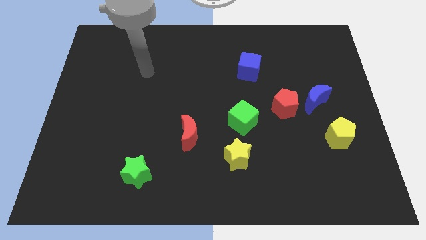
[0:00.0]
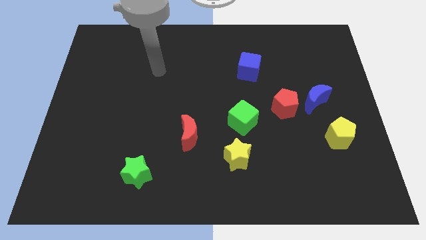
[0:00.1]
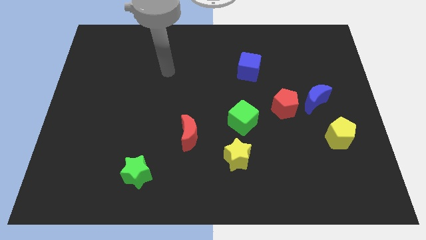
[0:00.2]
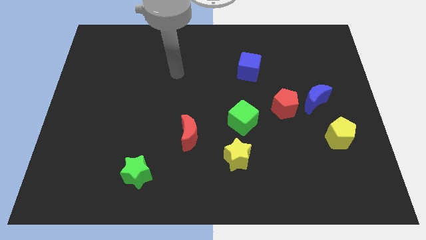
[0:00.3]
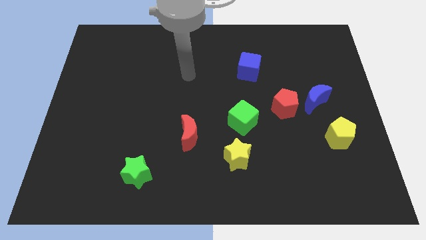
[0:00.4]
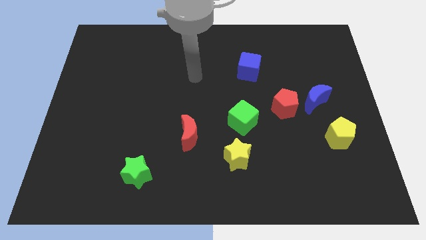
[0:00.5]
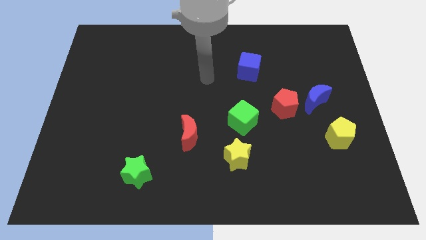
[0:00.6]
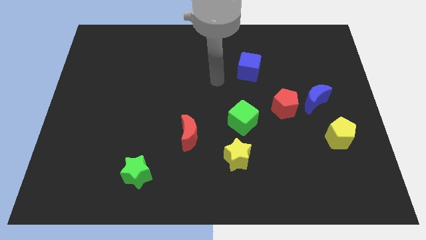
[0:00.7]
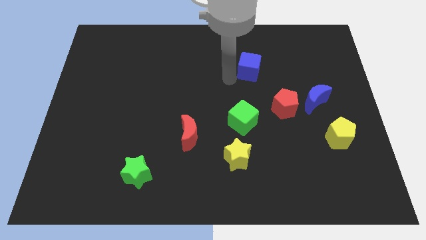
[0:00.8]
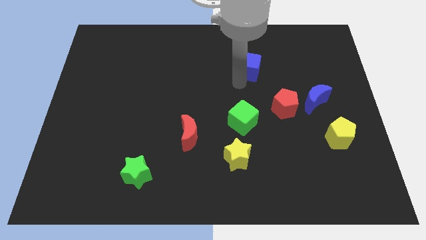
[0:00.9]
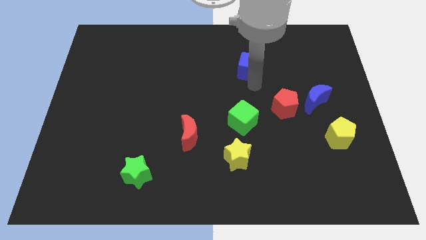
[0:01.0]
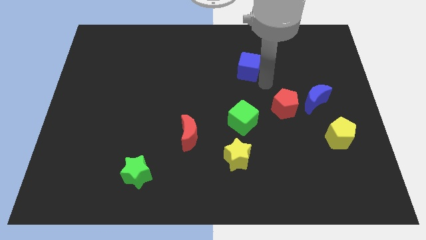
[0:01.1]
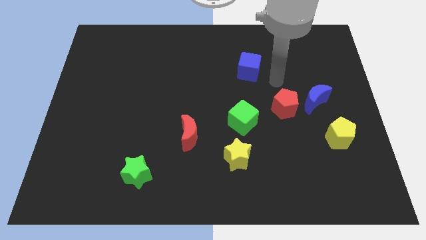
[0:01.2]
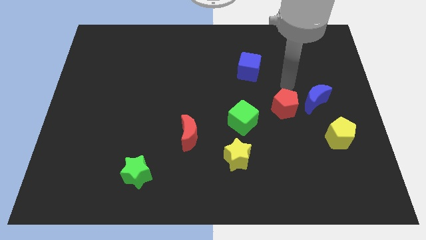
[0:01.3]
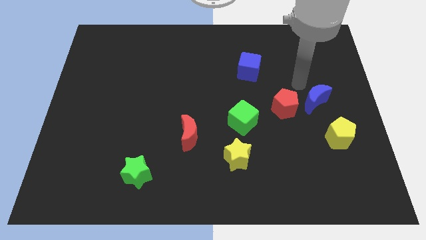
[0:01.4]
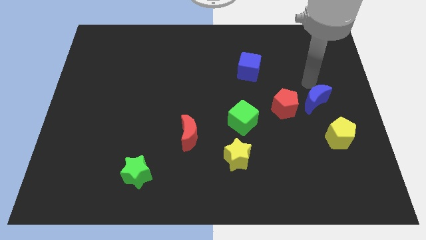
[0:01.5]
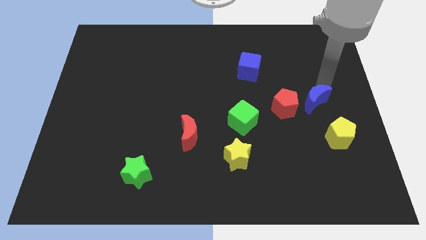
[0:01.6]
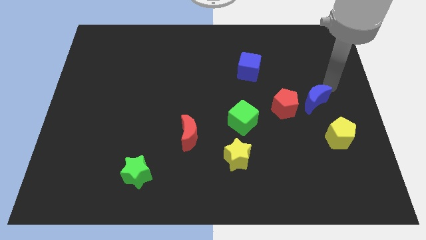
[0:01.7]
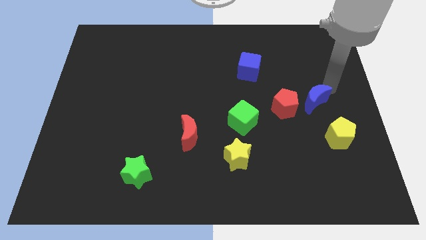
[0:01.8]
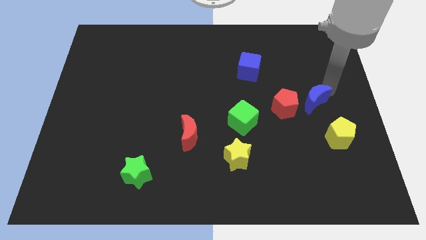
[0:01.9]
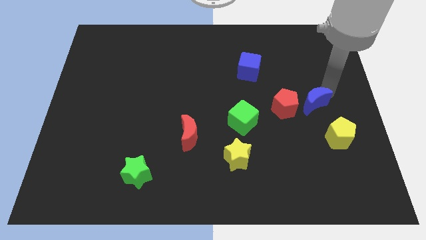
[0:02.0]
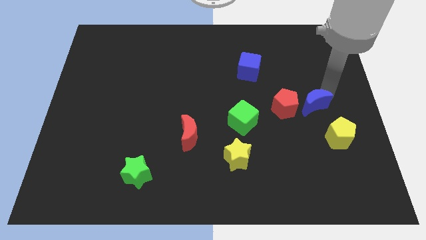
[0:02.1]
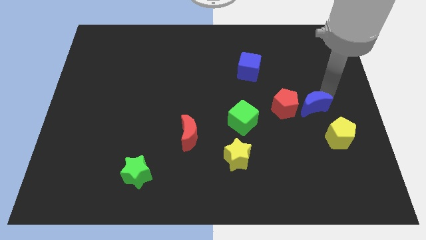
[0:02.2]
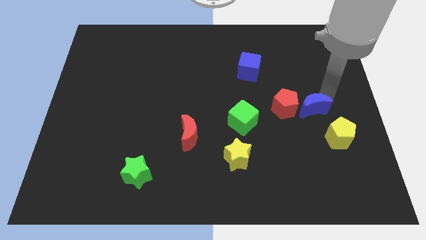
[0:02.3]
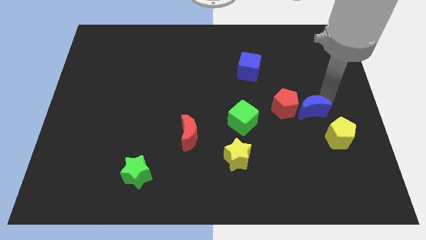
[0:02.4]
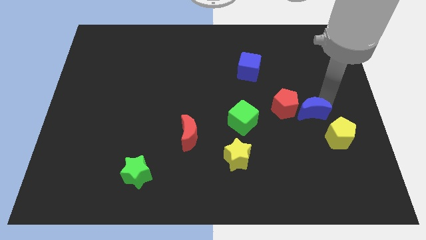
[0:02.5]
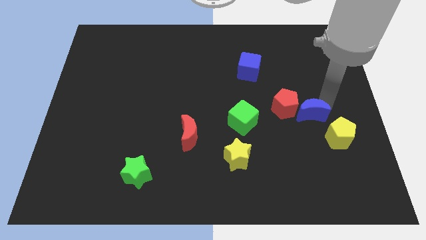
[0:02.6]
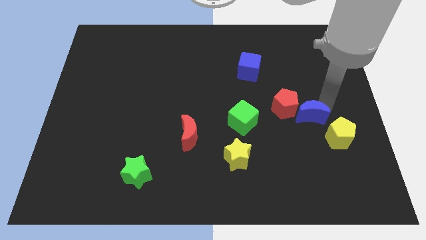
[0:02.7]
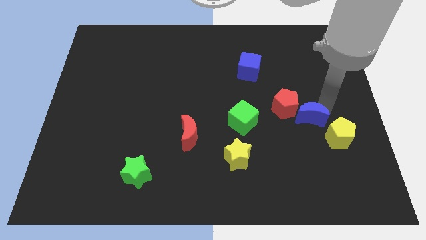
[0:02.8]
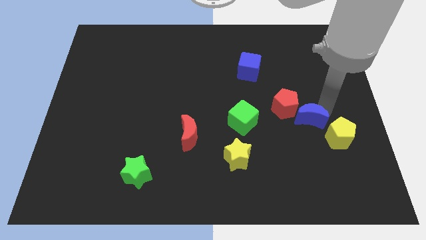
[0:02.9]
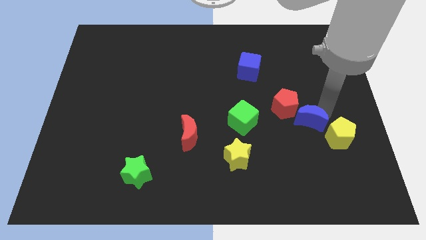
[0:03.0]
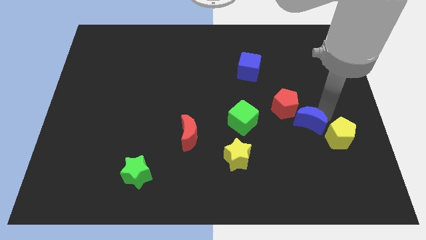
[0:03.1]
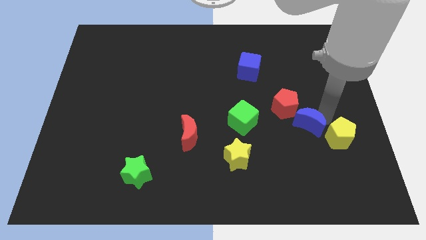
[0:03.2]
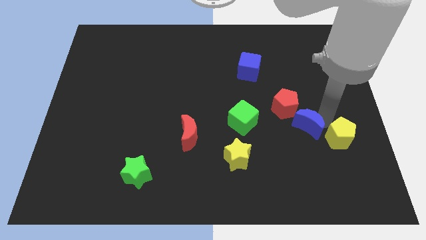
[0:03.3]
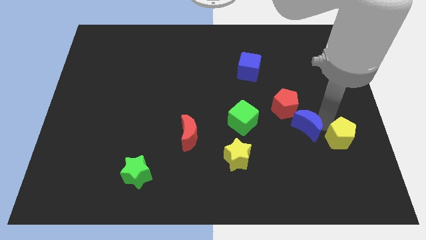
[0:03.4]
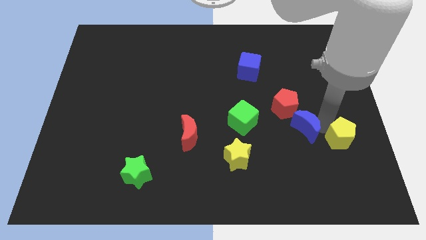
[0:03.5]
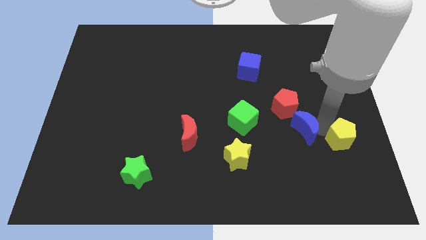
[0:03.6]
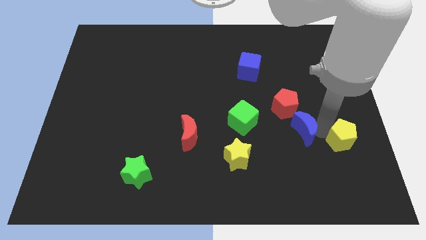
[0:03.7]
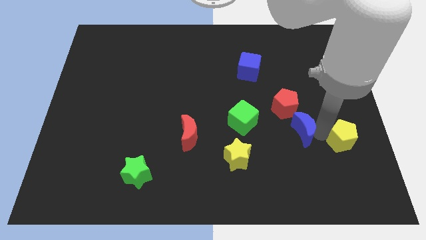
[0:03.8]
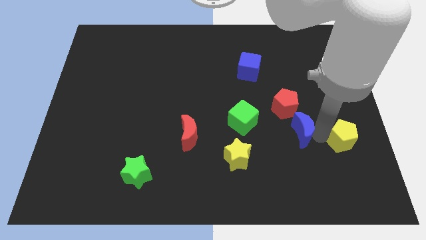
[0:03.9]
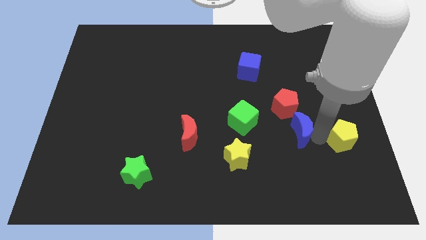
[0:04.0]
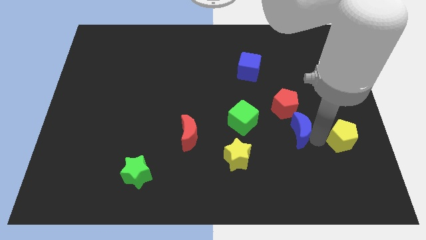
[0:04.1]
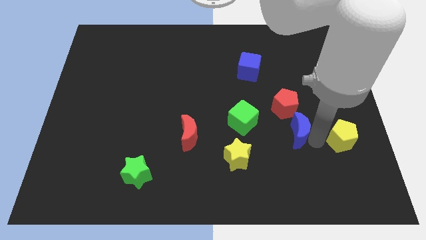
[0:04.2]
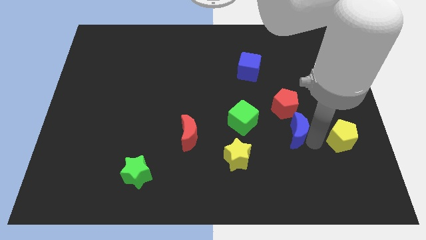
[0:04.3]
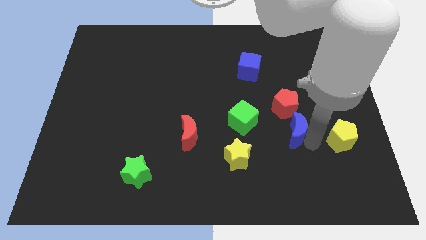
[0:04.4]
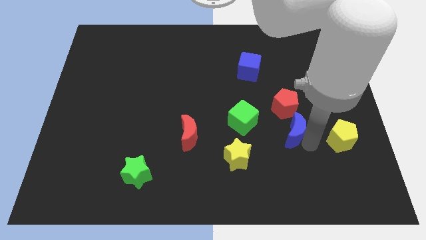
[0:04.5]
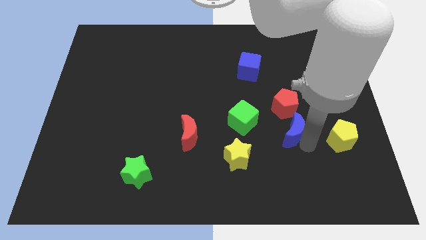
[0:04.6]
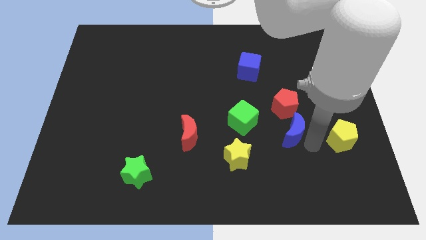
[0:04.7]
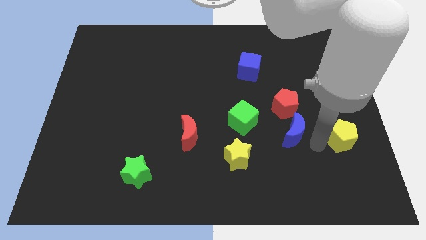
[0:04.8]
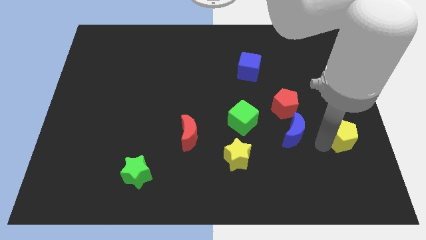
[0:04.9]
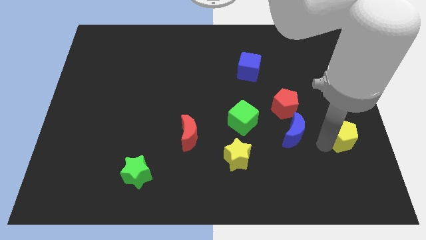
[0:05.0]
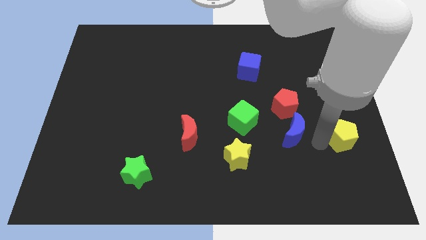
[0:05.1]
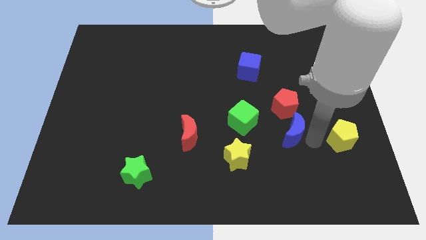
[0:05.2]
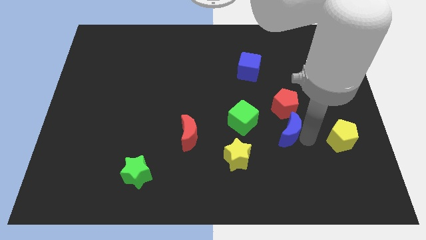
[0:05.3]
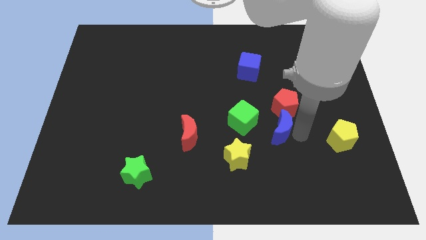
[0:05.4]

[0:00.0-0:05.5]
slide the blue moon to the bottom right side of the green cube

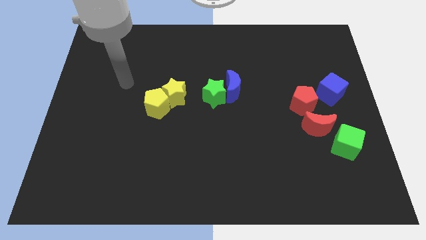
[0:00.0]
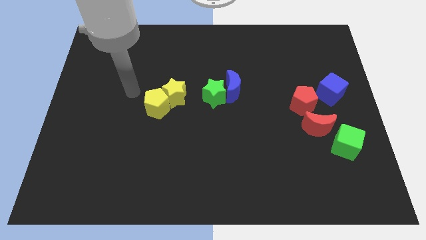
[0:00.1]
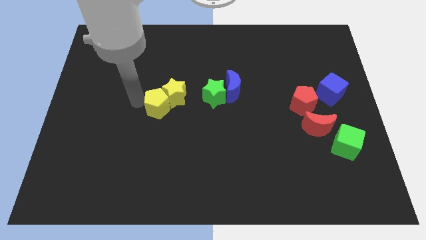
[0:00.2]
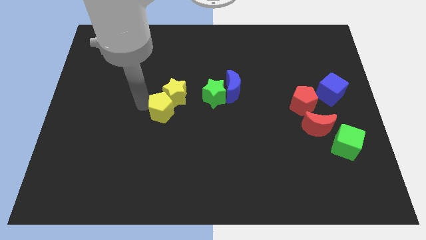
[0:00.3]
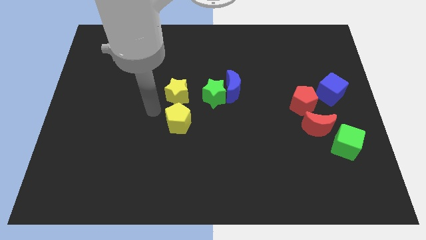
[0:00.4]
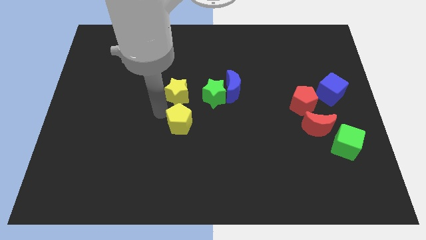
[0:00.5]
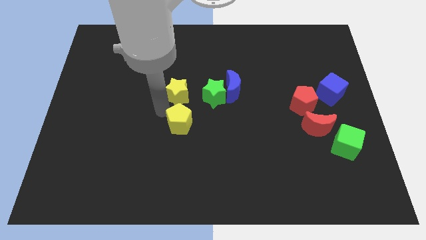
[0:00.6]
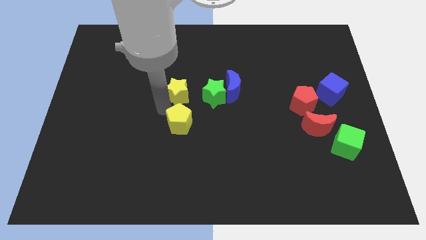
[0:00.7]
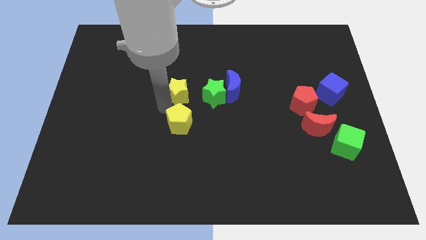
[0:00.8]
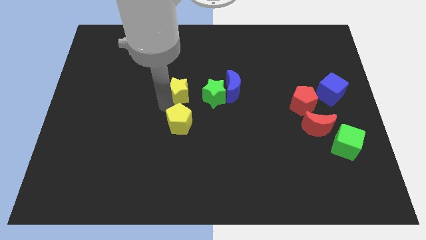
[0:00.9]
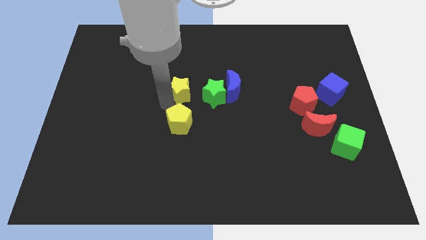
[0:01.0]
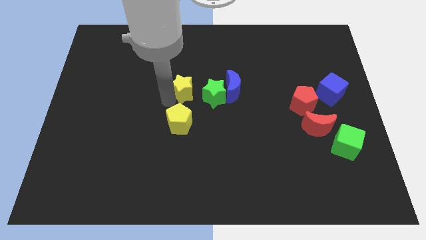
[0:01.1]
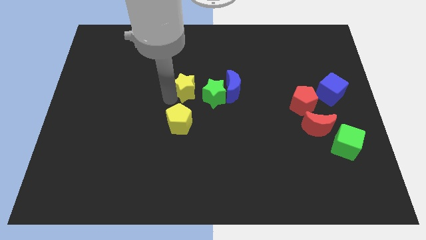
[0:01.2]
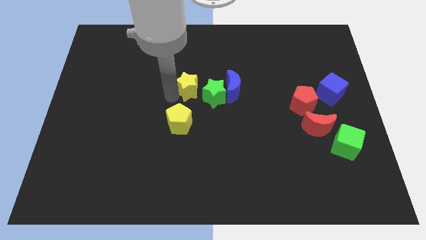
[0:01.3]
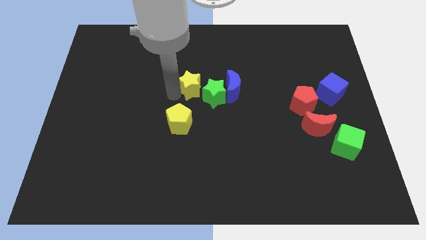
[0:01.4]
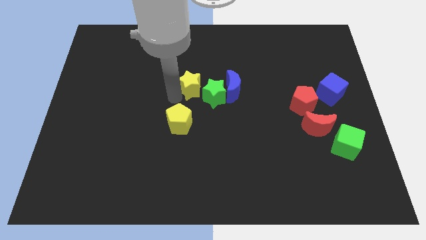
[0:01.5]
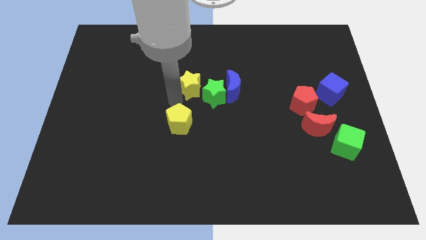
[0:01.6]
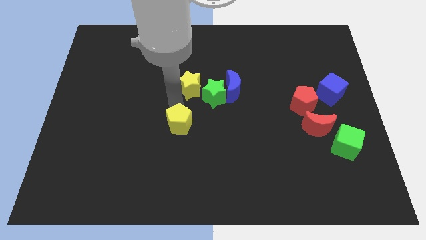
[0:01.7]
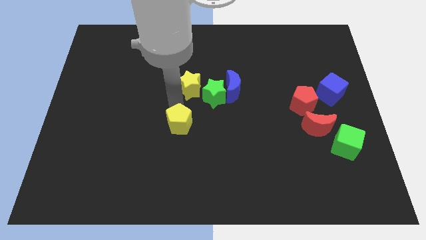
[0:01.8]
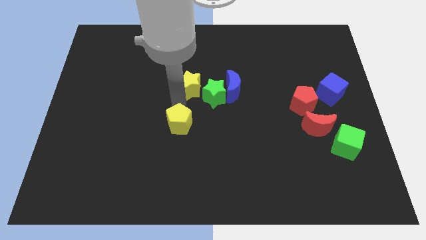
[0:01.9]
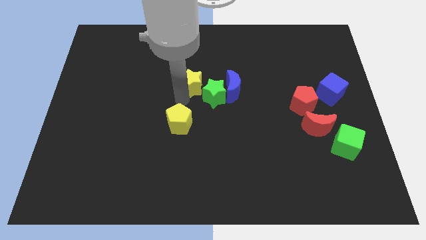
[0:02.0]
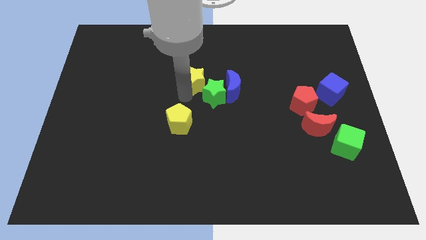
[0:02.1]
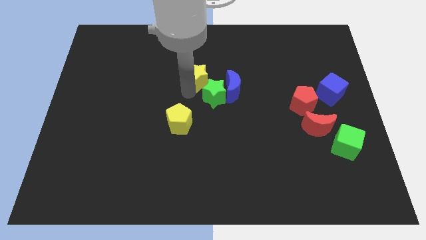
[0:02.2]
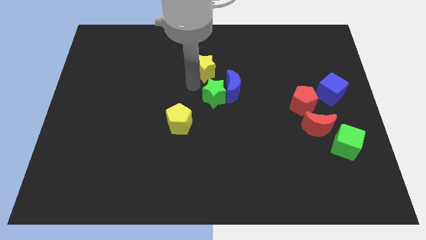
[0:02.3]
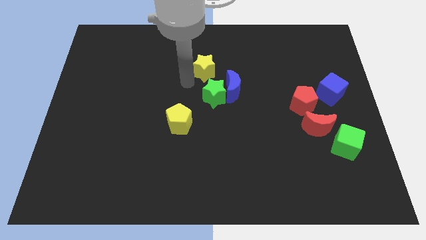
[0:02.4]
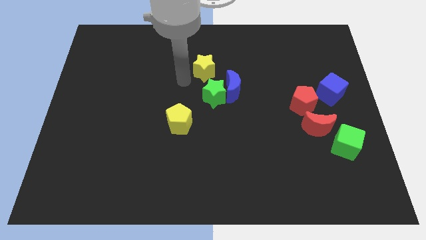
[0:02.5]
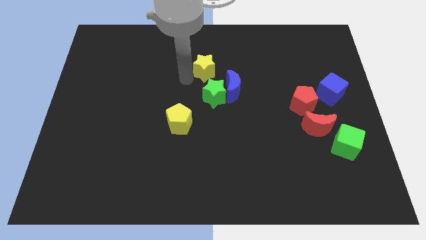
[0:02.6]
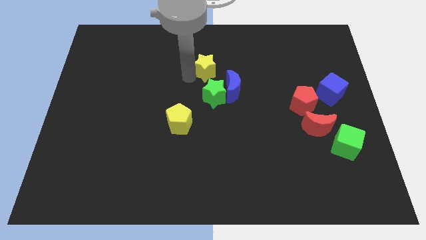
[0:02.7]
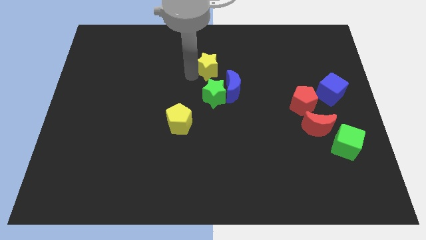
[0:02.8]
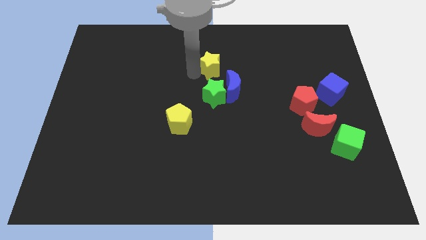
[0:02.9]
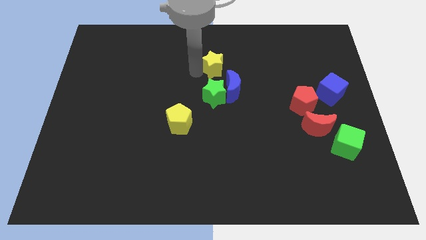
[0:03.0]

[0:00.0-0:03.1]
put the yellow star to the top side of the blue moon
